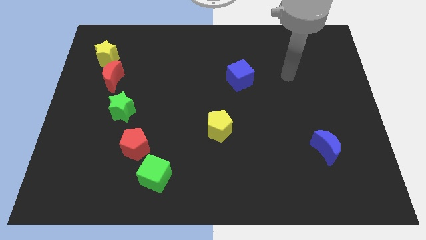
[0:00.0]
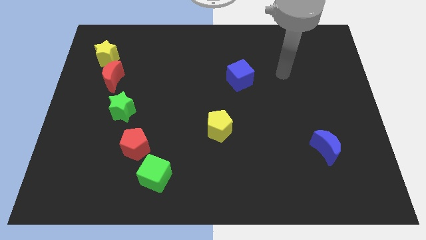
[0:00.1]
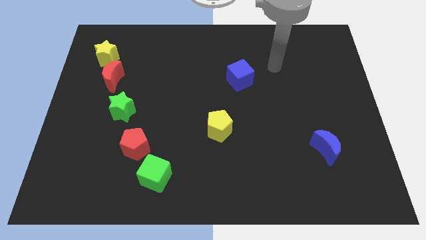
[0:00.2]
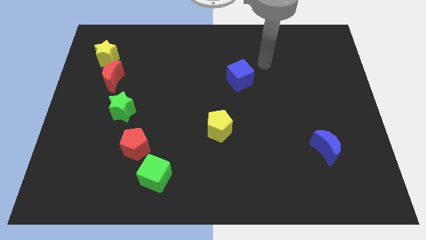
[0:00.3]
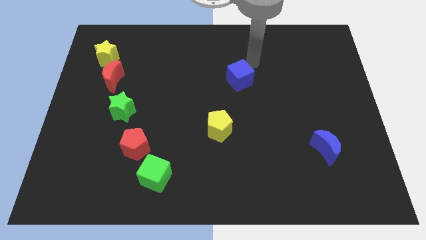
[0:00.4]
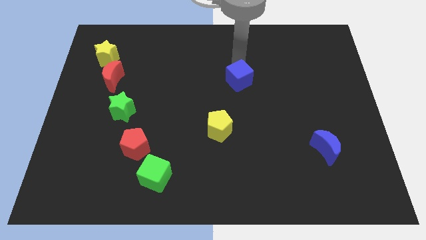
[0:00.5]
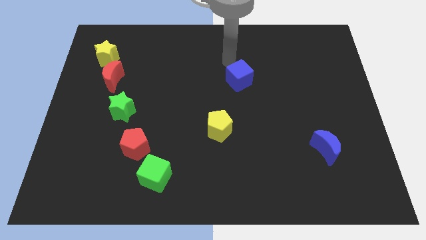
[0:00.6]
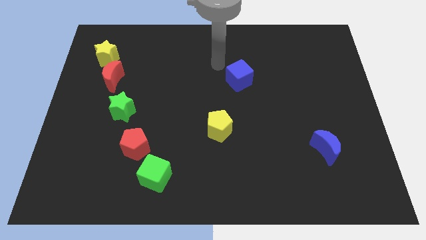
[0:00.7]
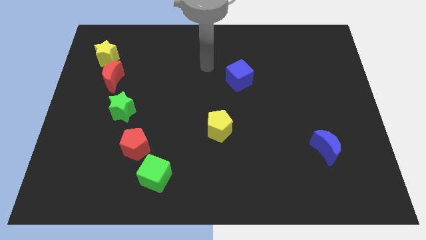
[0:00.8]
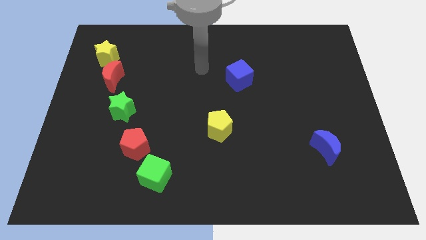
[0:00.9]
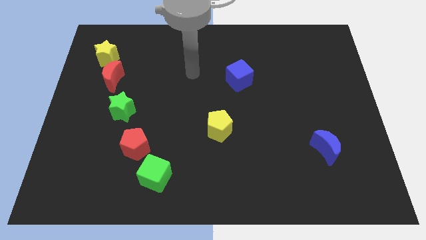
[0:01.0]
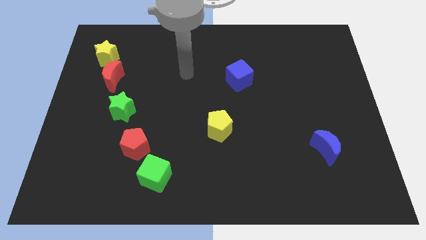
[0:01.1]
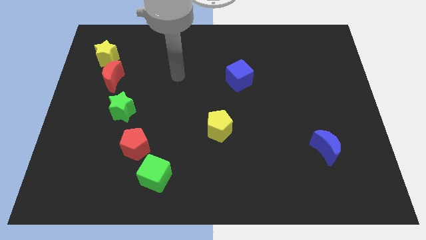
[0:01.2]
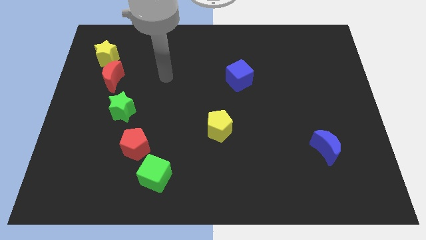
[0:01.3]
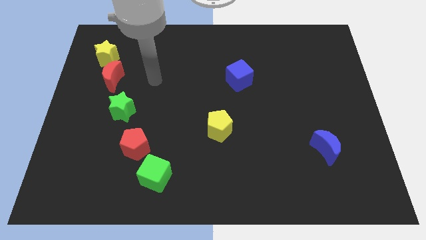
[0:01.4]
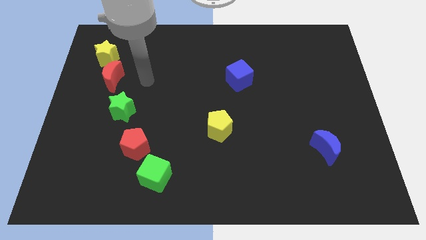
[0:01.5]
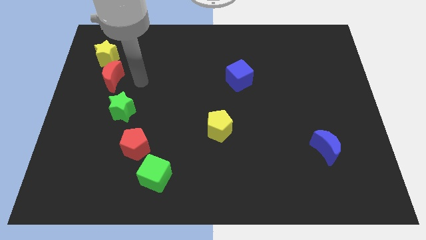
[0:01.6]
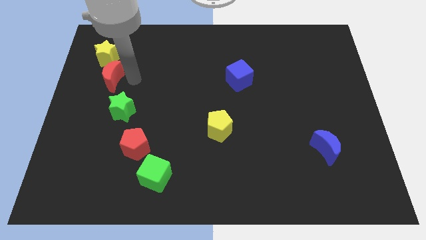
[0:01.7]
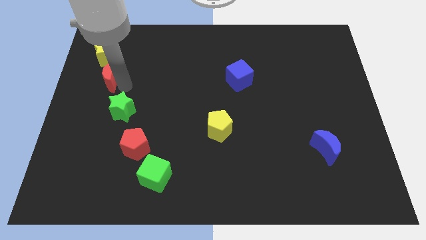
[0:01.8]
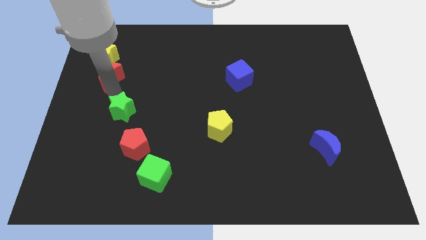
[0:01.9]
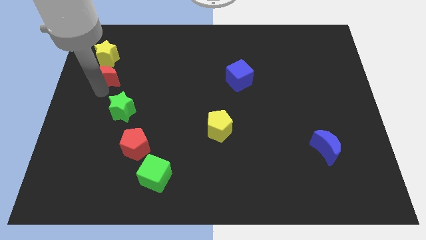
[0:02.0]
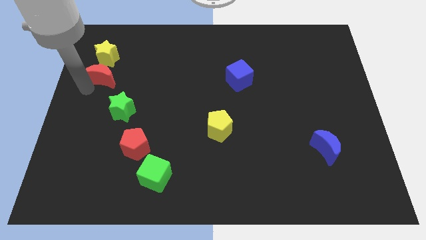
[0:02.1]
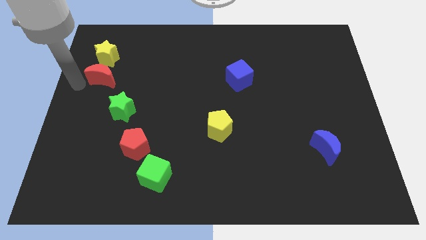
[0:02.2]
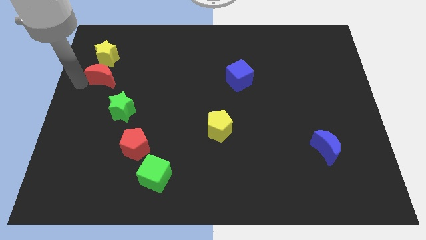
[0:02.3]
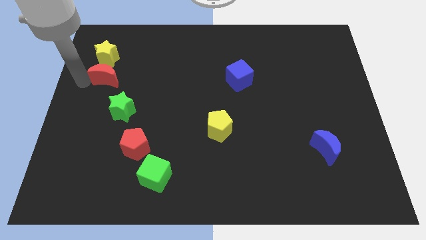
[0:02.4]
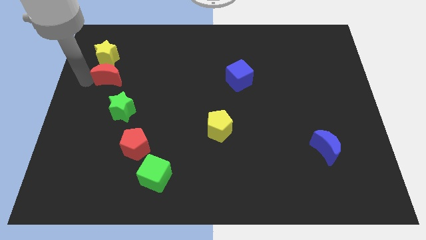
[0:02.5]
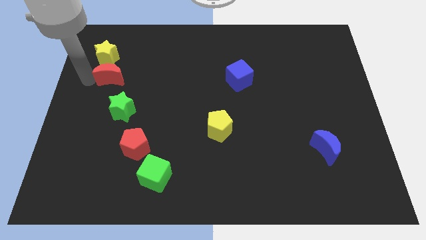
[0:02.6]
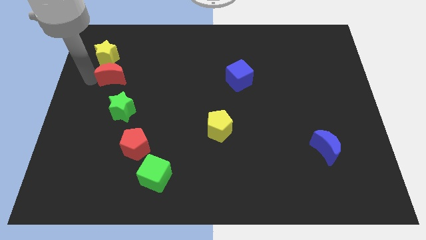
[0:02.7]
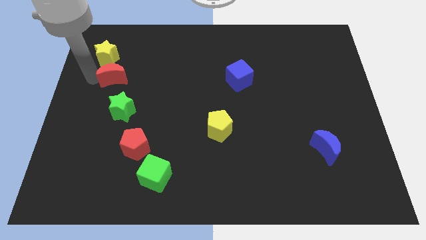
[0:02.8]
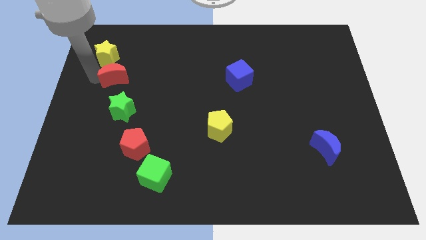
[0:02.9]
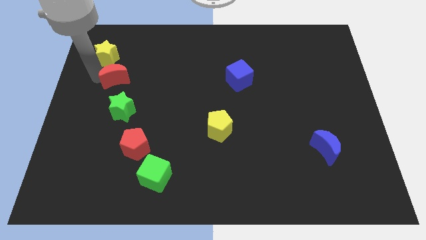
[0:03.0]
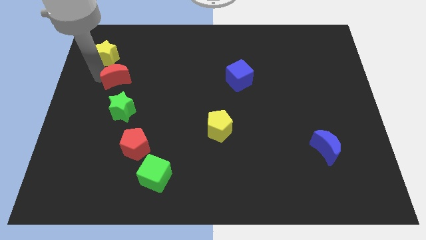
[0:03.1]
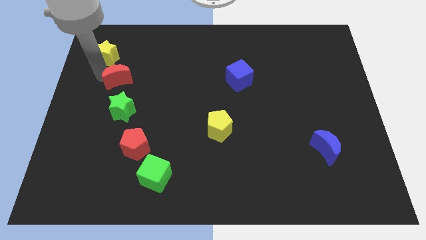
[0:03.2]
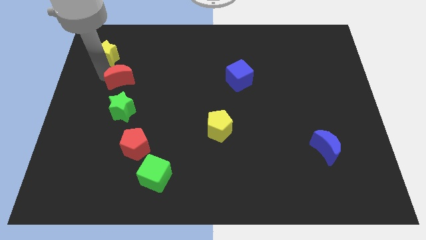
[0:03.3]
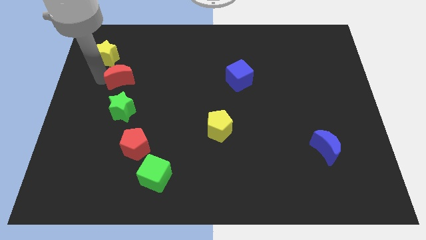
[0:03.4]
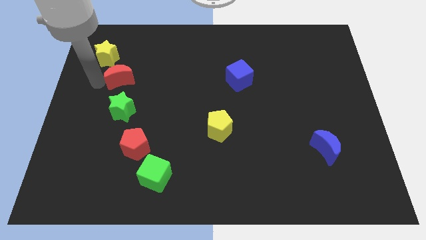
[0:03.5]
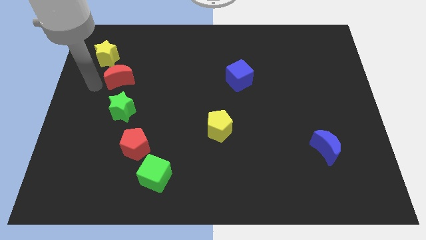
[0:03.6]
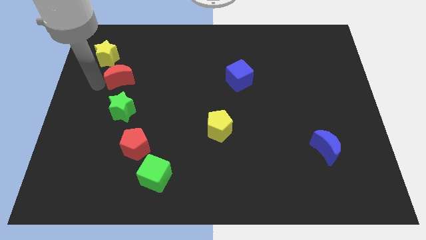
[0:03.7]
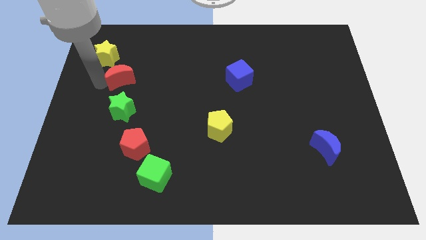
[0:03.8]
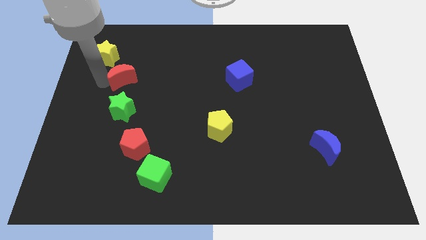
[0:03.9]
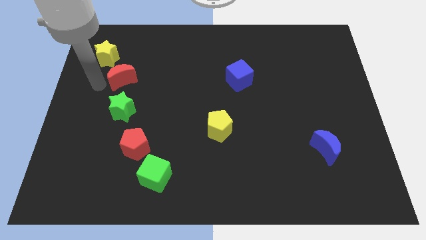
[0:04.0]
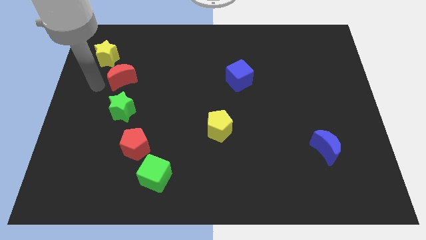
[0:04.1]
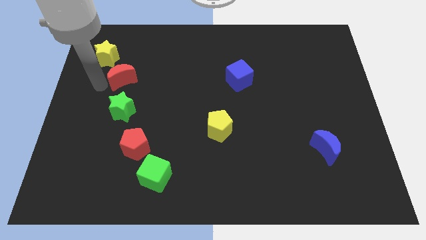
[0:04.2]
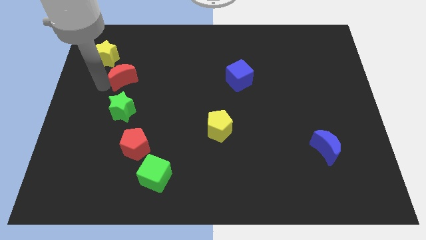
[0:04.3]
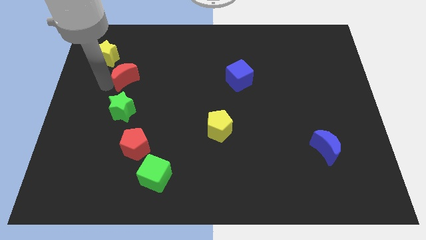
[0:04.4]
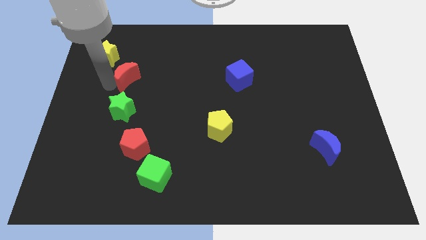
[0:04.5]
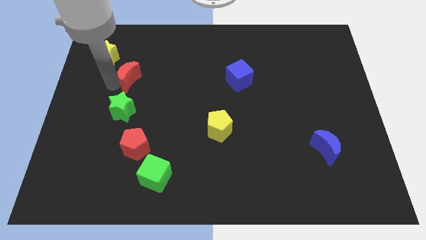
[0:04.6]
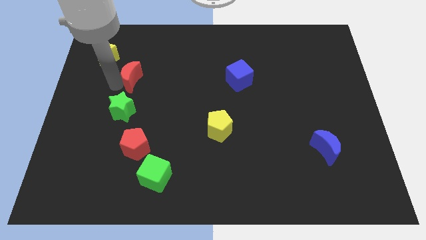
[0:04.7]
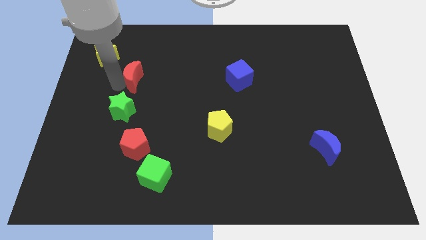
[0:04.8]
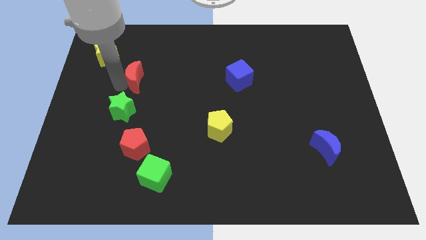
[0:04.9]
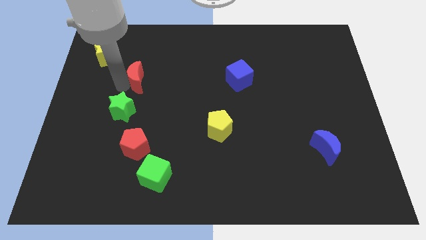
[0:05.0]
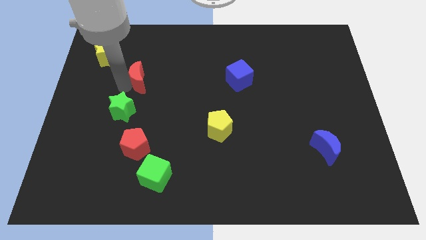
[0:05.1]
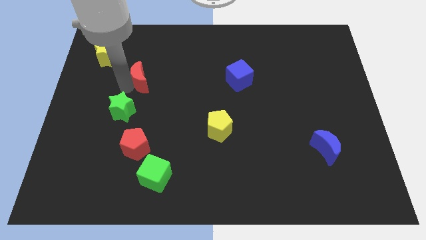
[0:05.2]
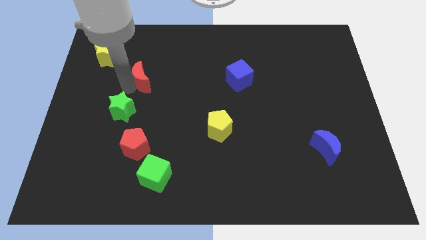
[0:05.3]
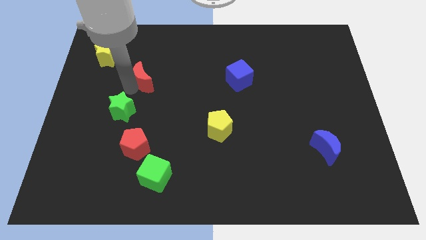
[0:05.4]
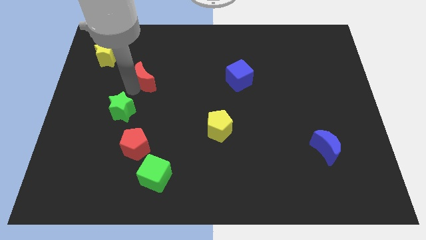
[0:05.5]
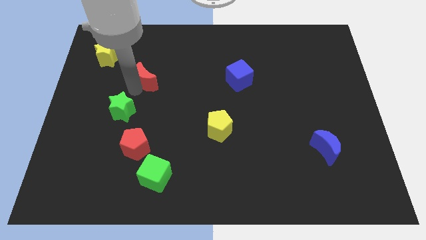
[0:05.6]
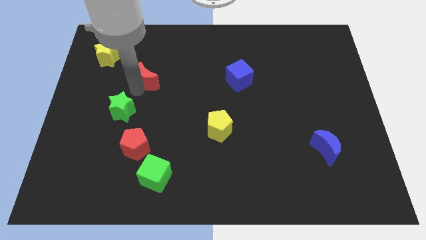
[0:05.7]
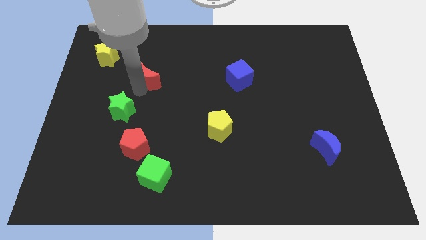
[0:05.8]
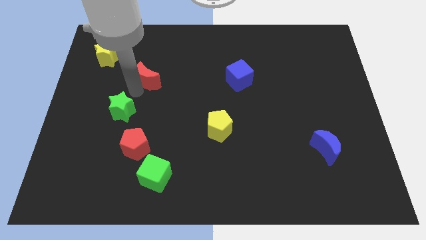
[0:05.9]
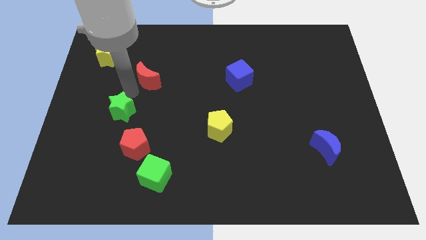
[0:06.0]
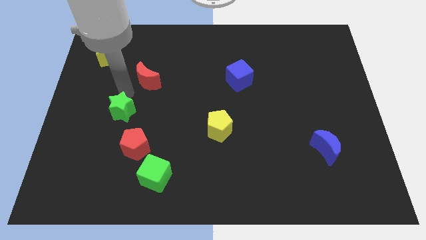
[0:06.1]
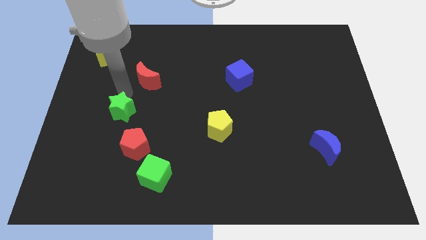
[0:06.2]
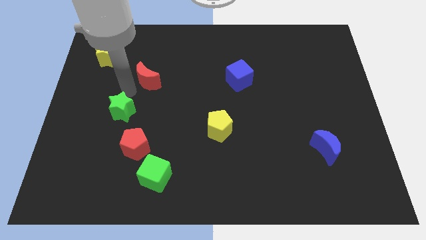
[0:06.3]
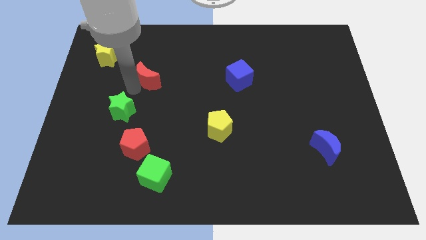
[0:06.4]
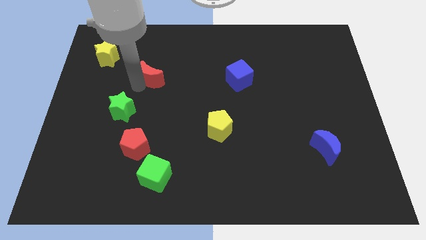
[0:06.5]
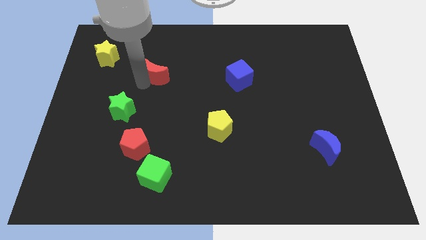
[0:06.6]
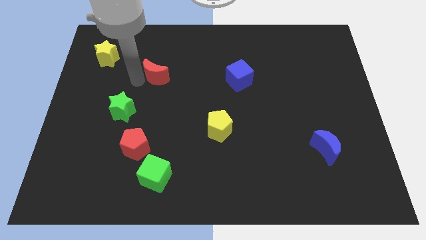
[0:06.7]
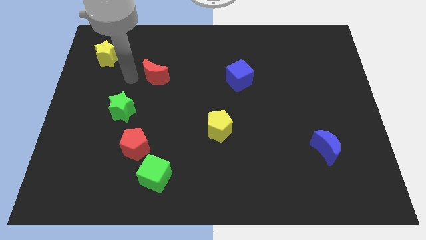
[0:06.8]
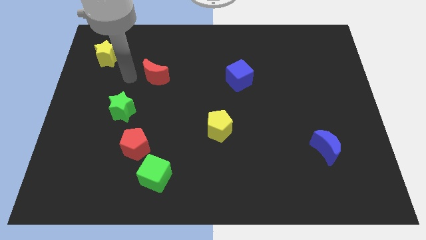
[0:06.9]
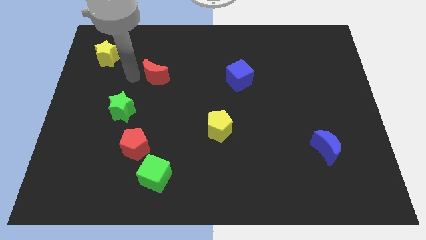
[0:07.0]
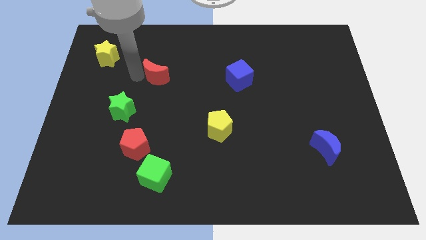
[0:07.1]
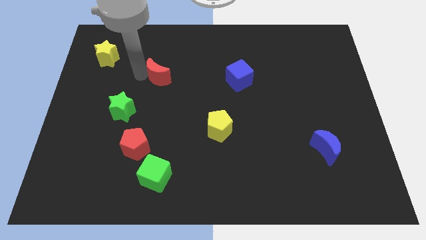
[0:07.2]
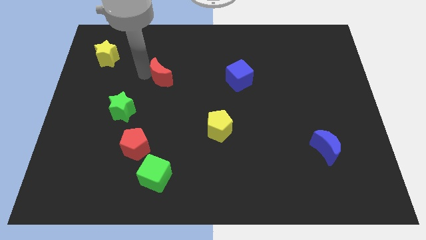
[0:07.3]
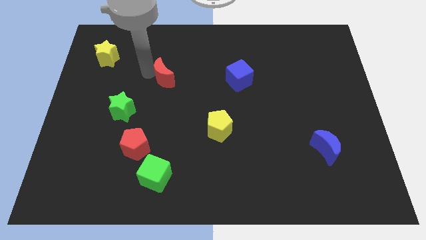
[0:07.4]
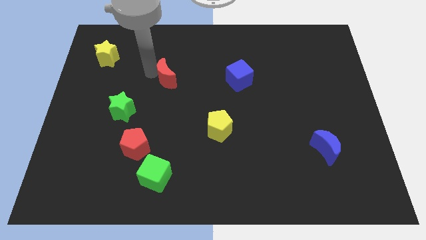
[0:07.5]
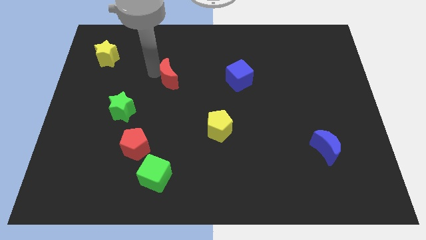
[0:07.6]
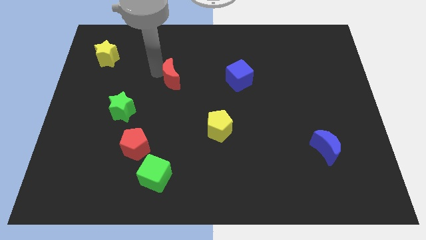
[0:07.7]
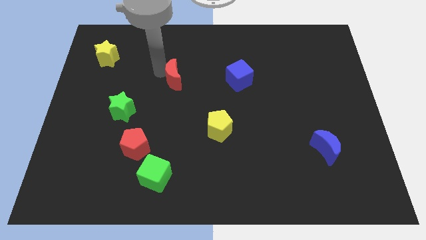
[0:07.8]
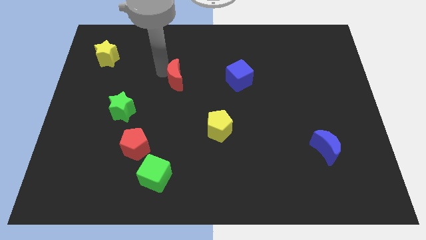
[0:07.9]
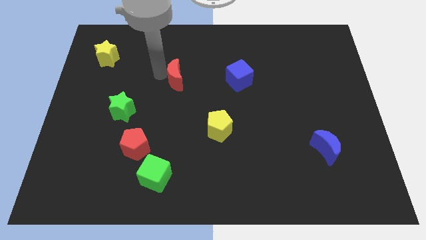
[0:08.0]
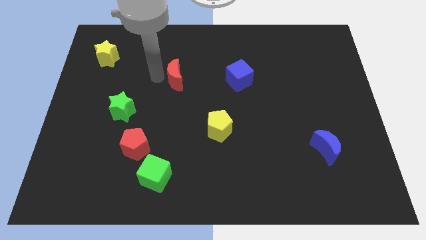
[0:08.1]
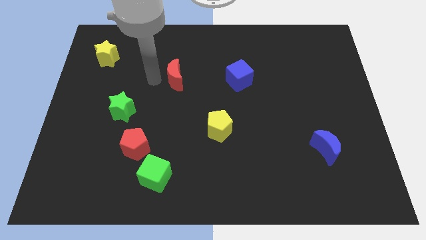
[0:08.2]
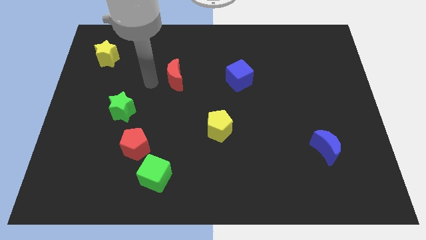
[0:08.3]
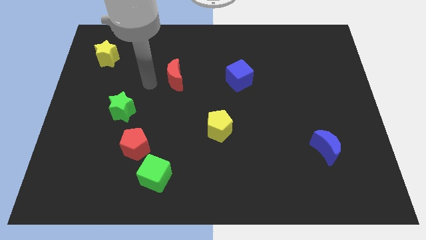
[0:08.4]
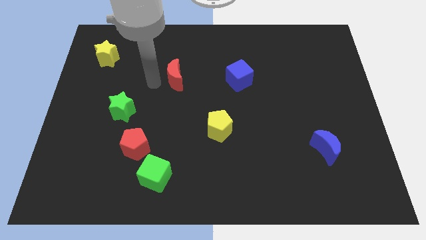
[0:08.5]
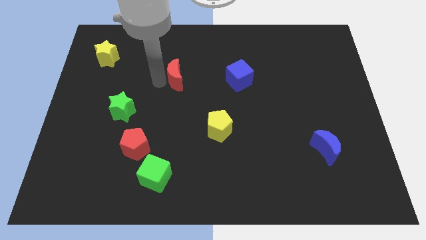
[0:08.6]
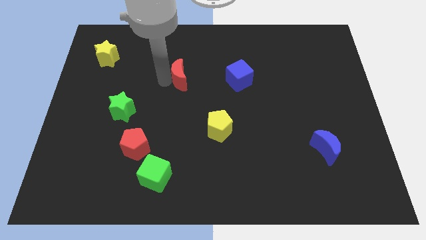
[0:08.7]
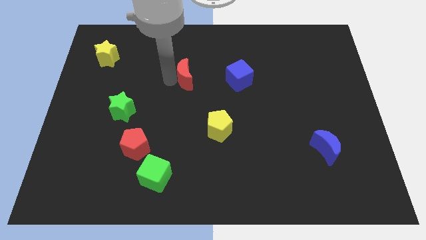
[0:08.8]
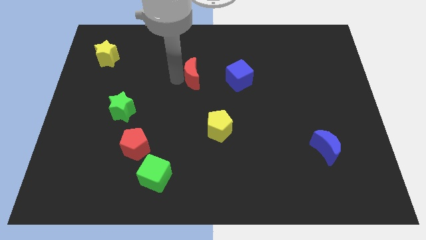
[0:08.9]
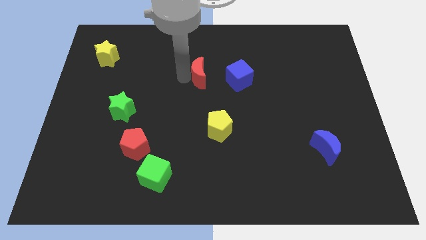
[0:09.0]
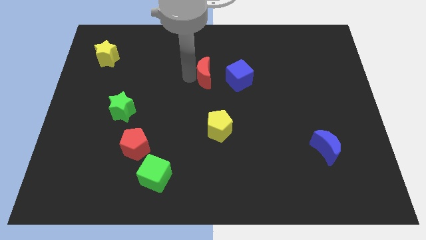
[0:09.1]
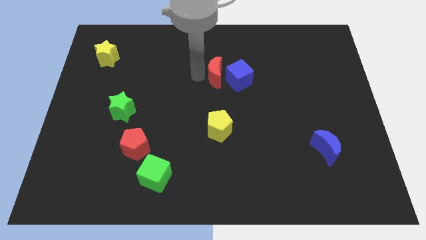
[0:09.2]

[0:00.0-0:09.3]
slide the red moon towards the blue cube
